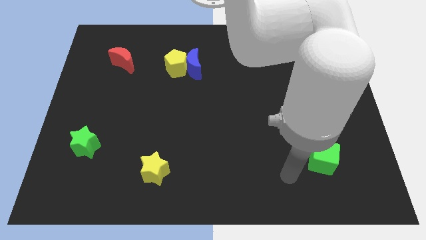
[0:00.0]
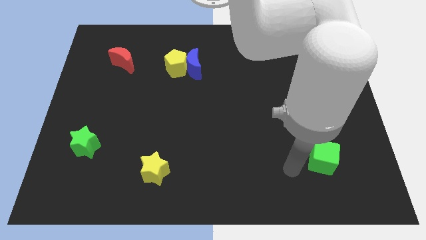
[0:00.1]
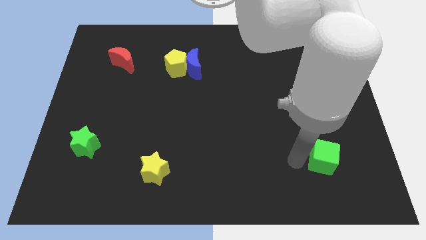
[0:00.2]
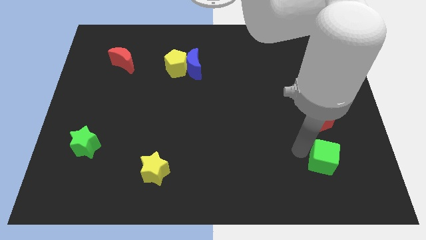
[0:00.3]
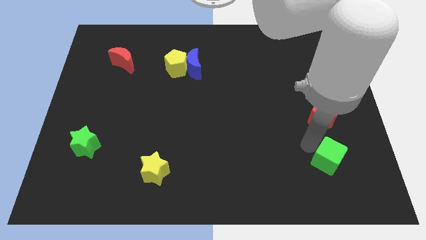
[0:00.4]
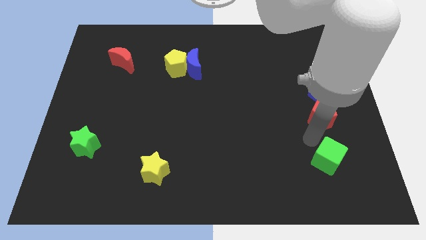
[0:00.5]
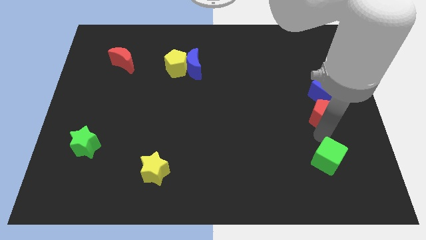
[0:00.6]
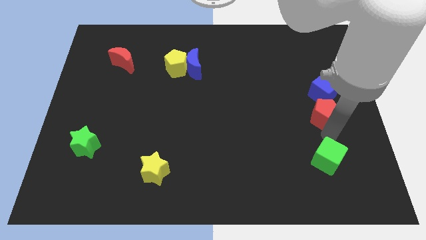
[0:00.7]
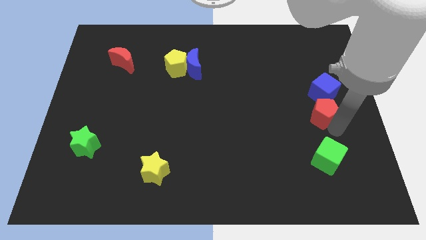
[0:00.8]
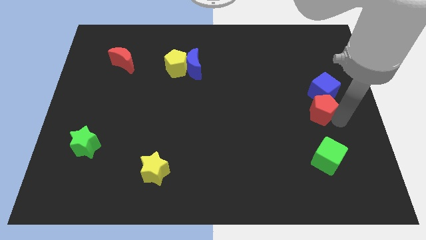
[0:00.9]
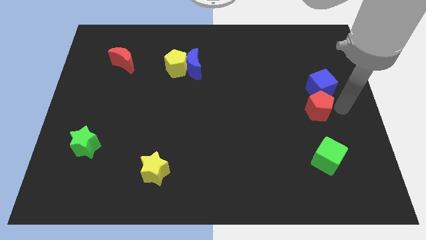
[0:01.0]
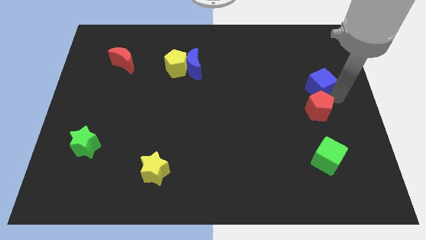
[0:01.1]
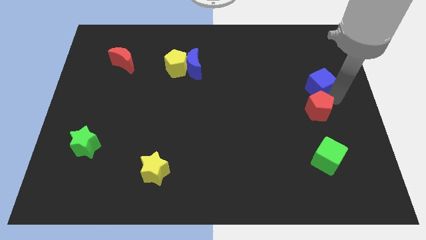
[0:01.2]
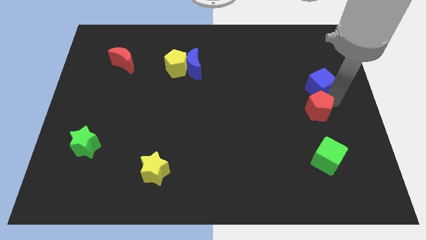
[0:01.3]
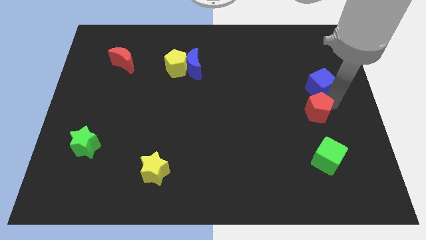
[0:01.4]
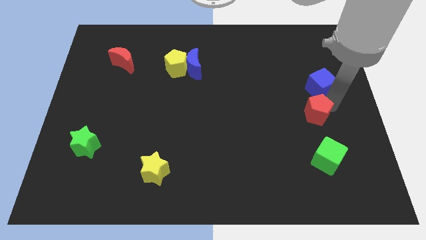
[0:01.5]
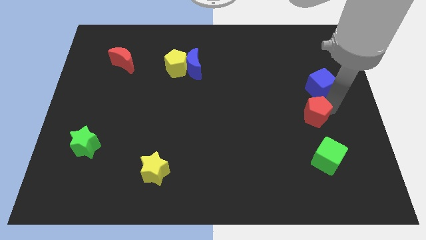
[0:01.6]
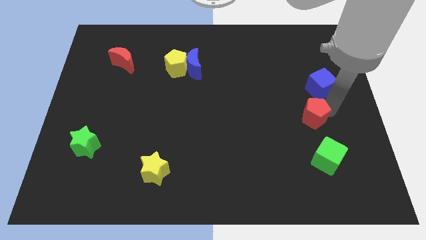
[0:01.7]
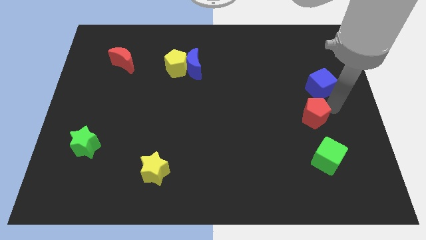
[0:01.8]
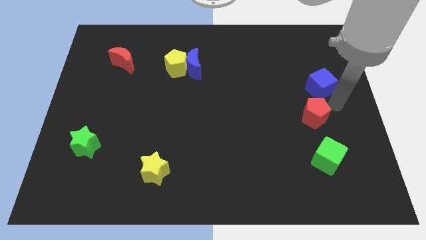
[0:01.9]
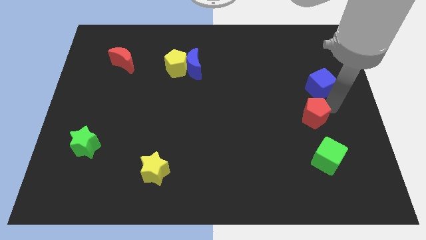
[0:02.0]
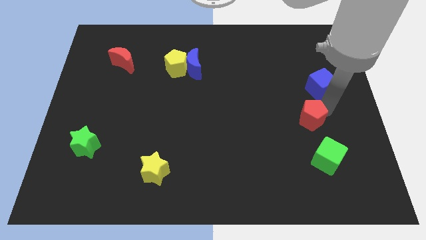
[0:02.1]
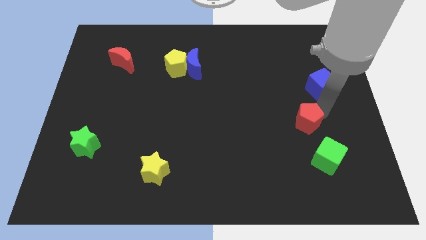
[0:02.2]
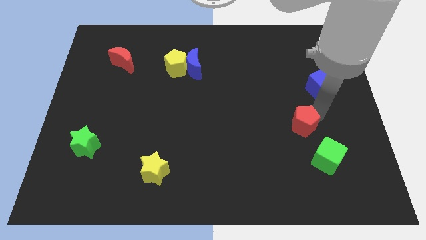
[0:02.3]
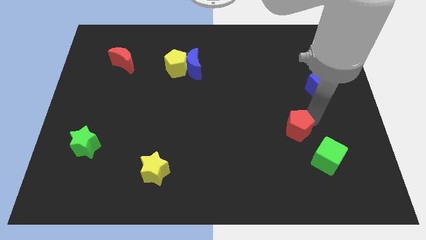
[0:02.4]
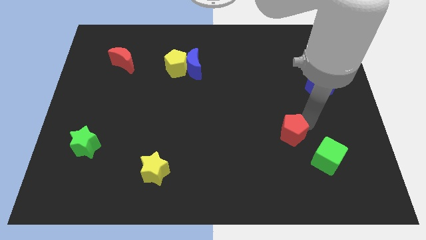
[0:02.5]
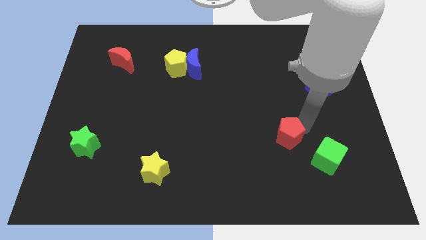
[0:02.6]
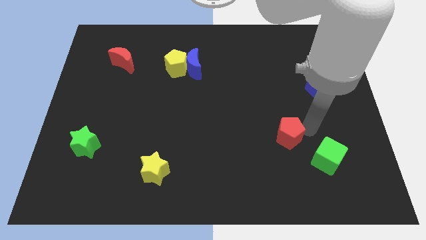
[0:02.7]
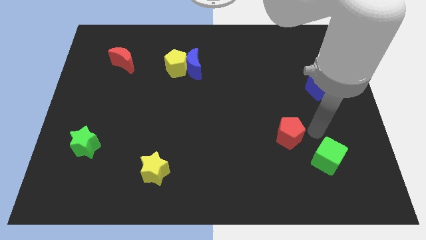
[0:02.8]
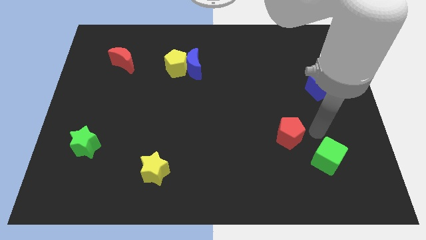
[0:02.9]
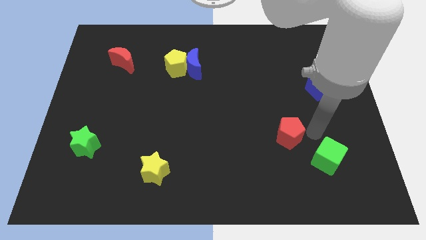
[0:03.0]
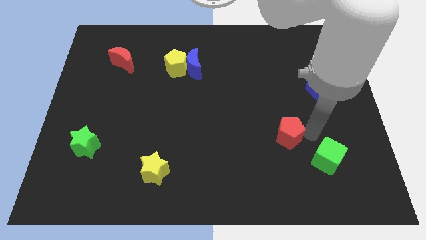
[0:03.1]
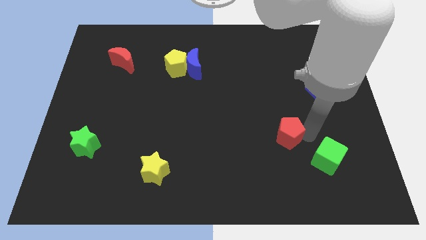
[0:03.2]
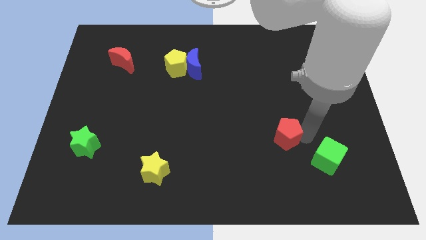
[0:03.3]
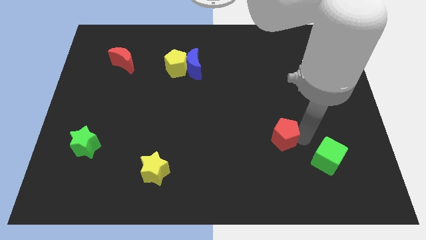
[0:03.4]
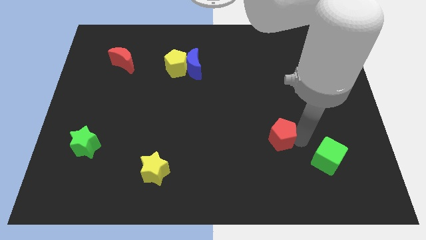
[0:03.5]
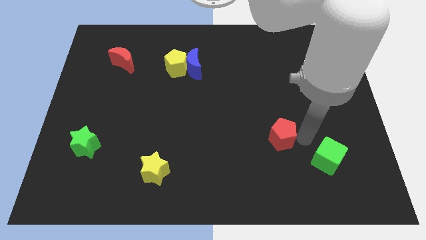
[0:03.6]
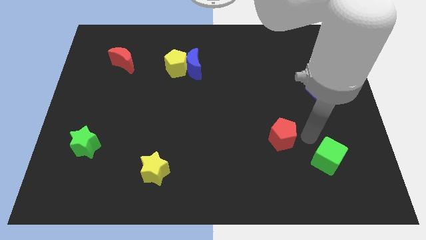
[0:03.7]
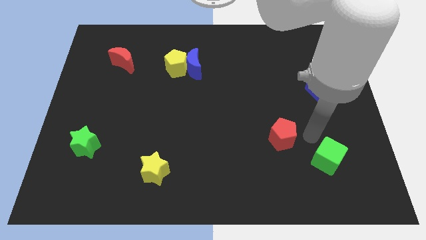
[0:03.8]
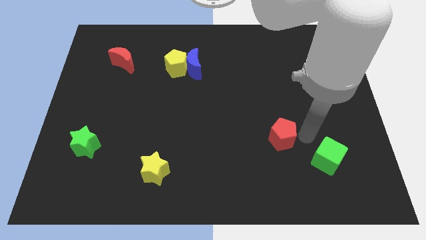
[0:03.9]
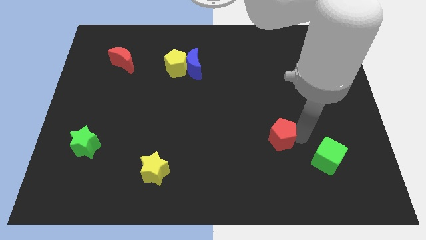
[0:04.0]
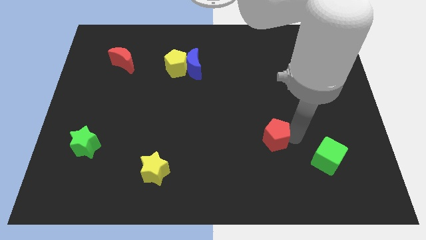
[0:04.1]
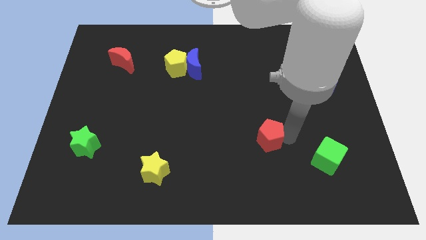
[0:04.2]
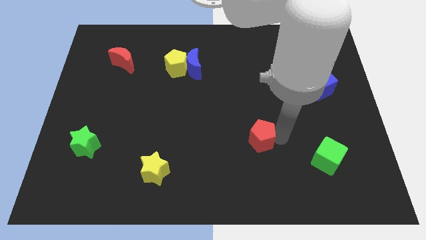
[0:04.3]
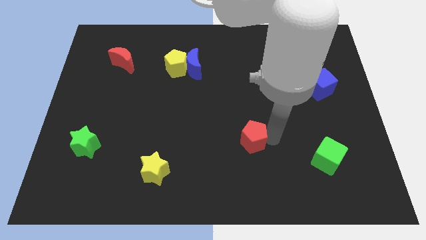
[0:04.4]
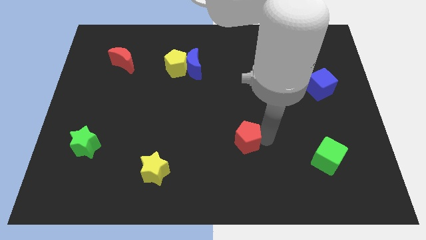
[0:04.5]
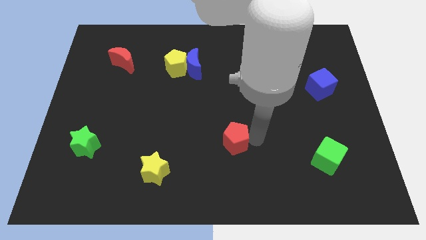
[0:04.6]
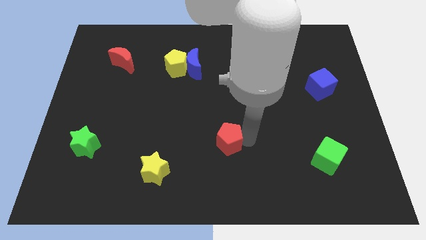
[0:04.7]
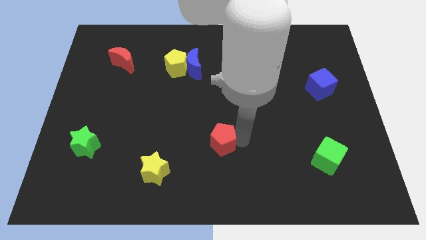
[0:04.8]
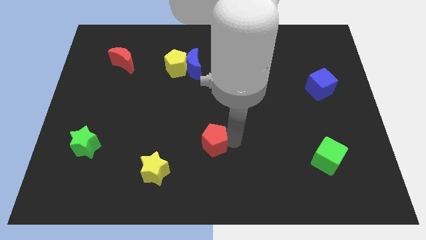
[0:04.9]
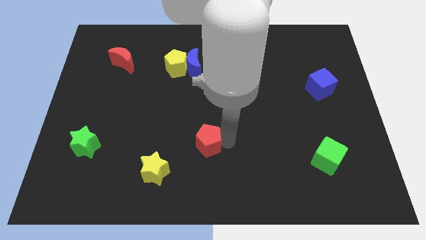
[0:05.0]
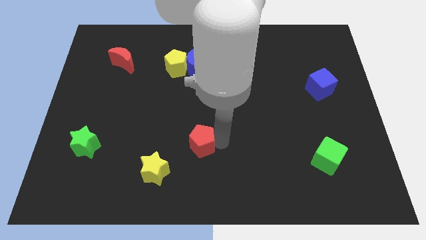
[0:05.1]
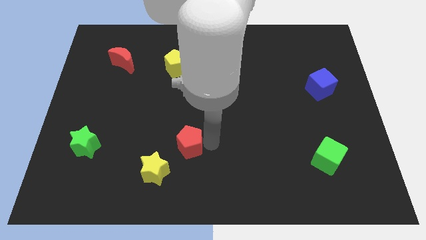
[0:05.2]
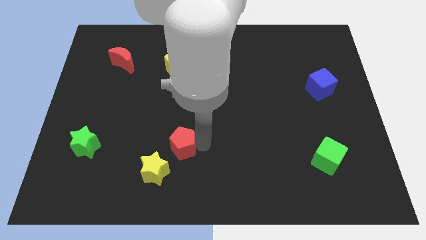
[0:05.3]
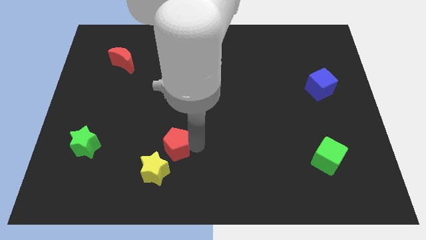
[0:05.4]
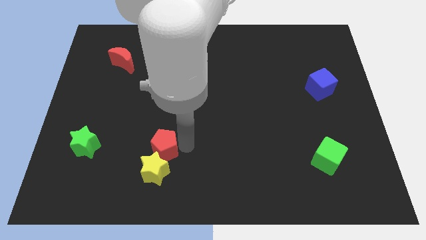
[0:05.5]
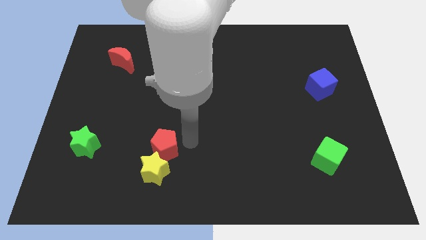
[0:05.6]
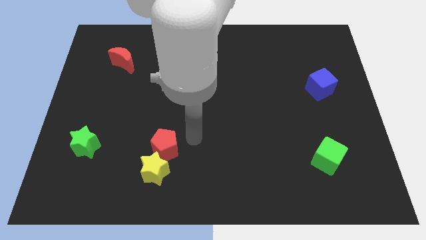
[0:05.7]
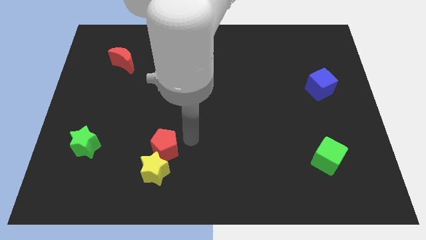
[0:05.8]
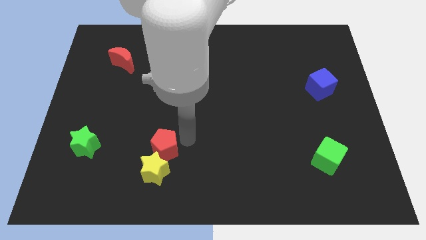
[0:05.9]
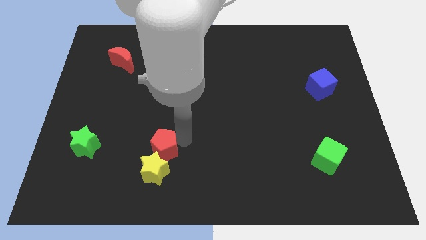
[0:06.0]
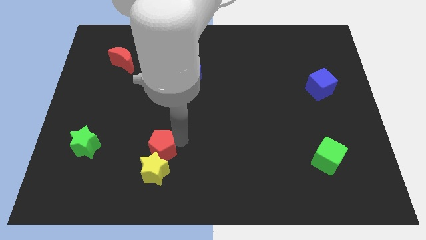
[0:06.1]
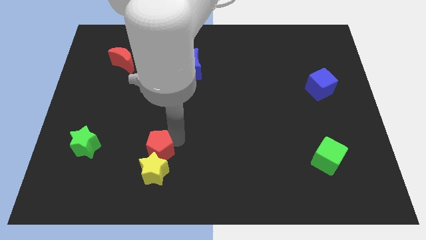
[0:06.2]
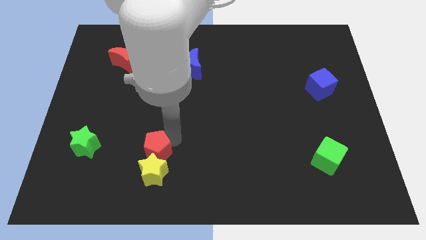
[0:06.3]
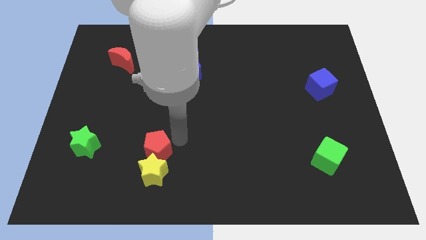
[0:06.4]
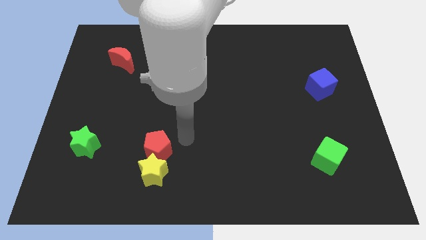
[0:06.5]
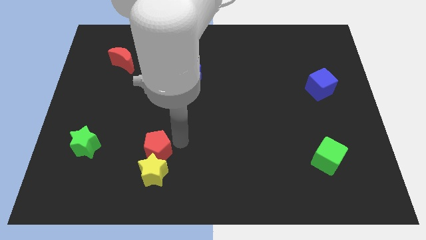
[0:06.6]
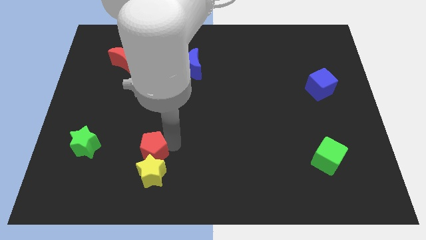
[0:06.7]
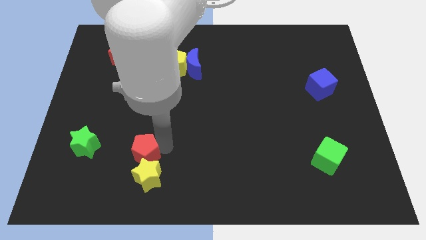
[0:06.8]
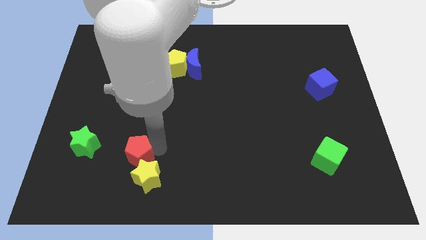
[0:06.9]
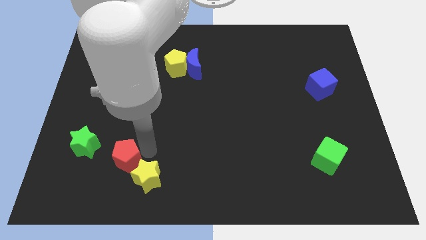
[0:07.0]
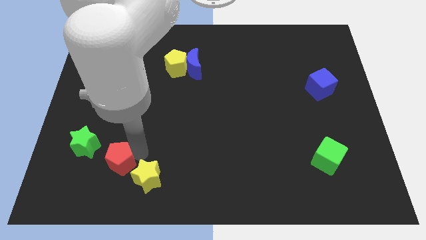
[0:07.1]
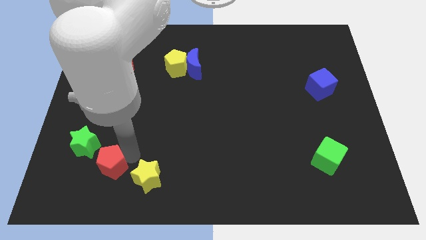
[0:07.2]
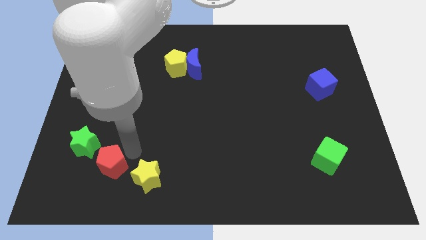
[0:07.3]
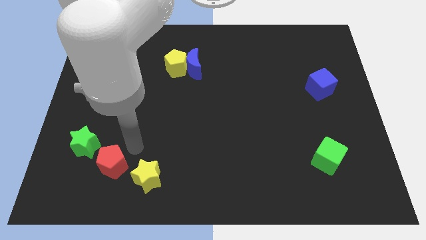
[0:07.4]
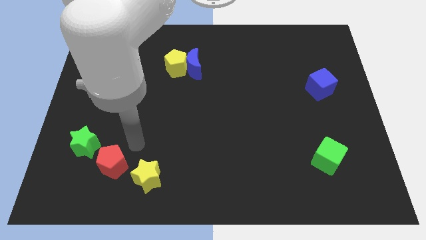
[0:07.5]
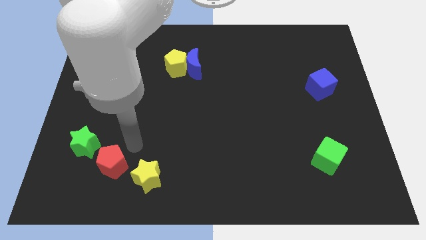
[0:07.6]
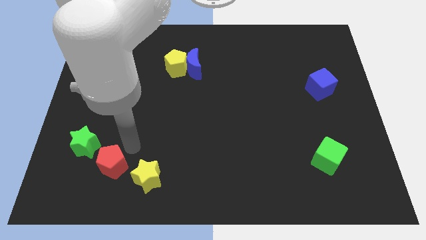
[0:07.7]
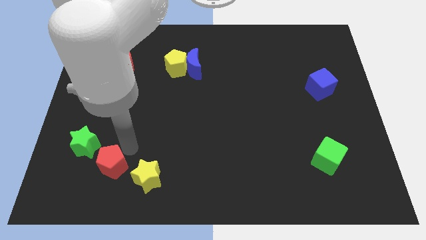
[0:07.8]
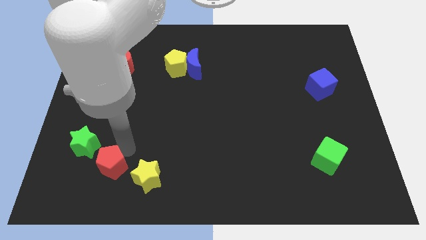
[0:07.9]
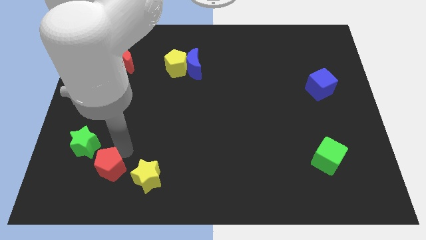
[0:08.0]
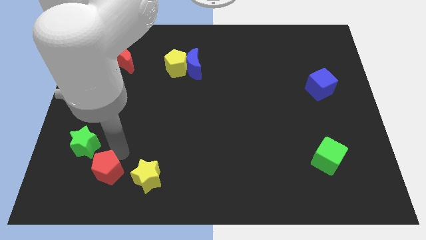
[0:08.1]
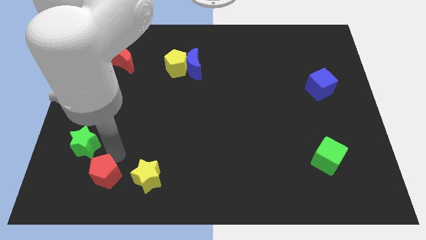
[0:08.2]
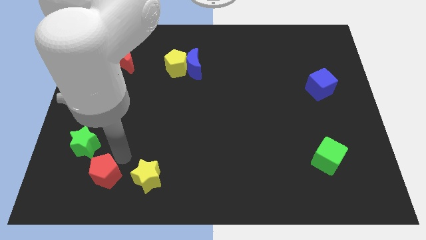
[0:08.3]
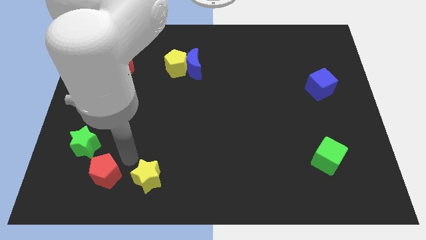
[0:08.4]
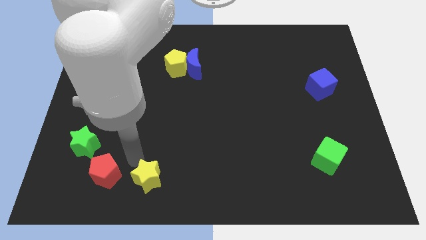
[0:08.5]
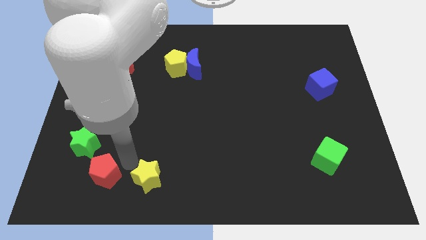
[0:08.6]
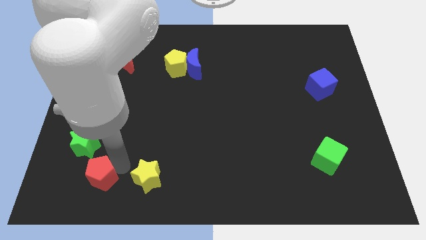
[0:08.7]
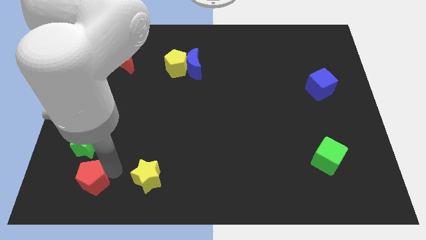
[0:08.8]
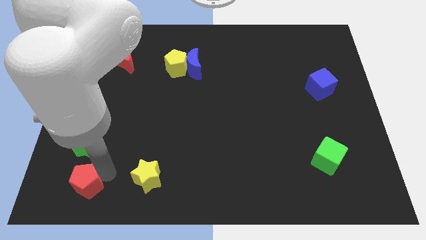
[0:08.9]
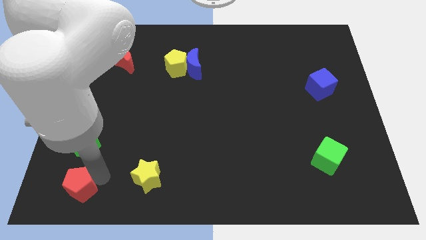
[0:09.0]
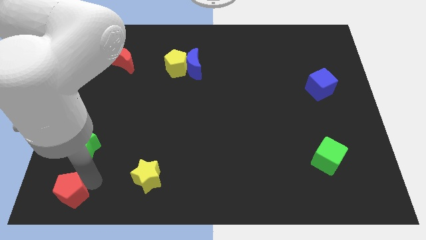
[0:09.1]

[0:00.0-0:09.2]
put the red pentagon to the bottom left
